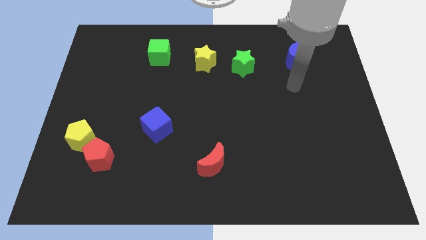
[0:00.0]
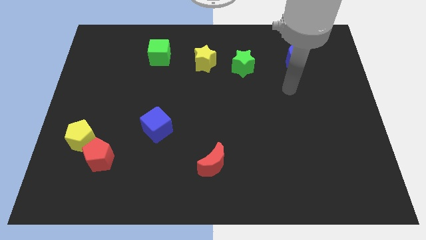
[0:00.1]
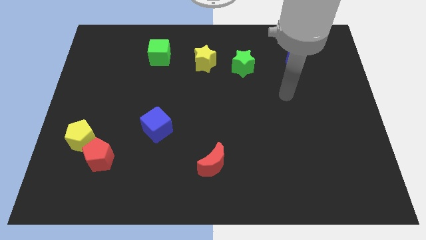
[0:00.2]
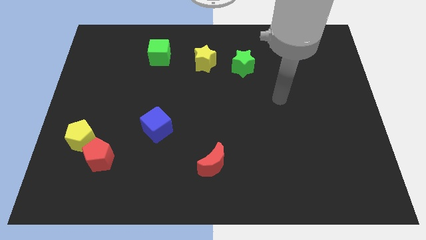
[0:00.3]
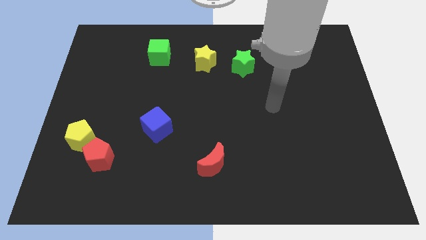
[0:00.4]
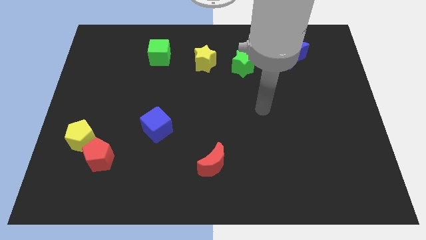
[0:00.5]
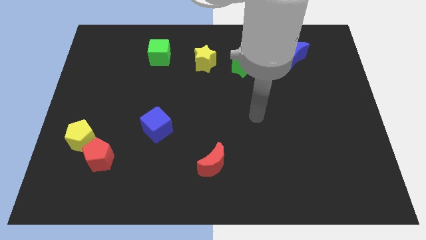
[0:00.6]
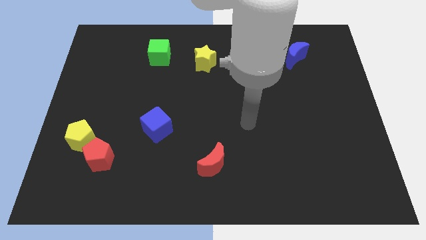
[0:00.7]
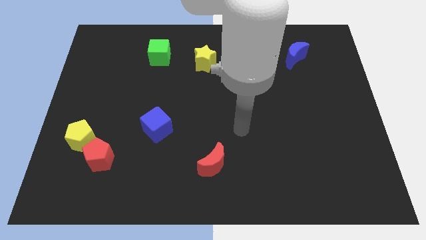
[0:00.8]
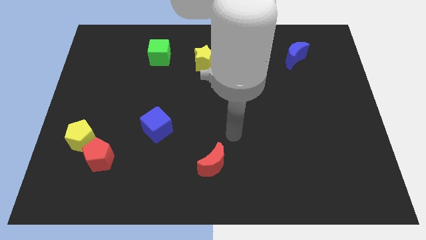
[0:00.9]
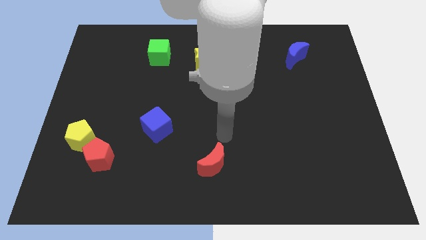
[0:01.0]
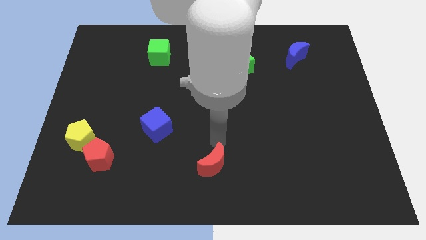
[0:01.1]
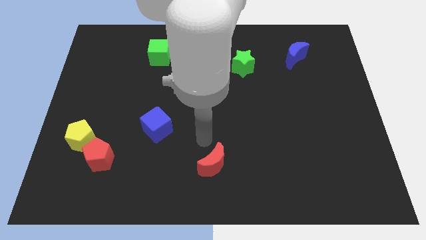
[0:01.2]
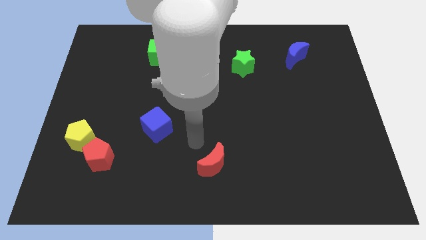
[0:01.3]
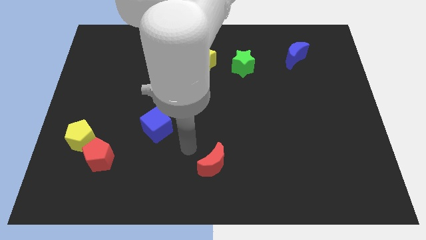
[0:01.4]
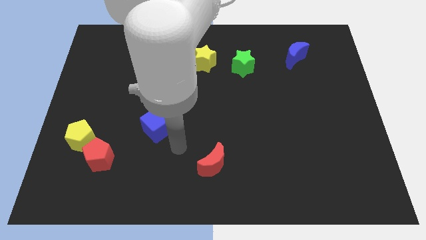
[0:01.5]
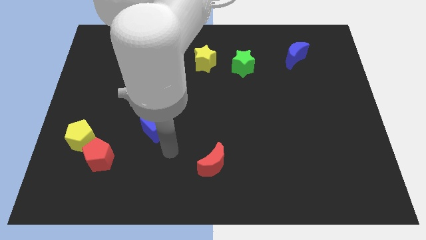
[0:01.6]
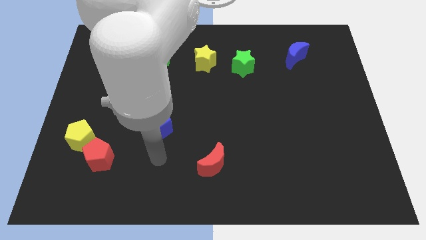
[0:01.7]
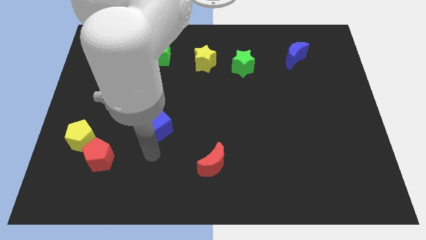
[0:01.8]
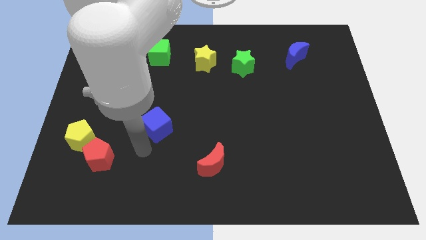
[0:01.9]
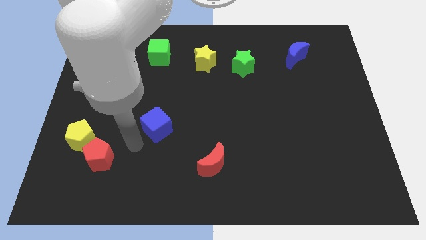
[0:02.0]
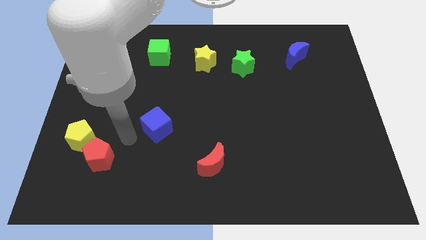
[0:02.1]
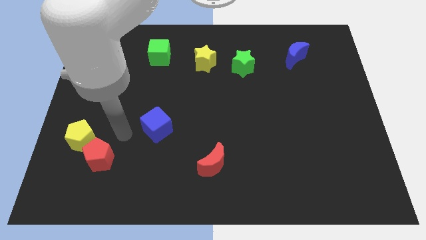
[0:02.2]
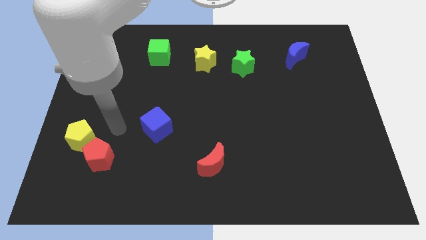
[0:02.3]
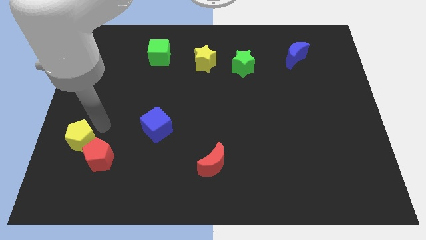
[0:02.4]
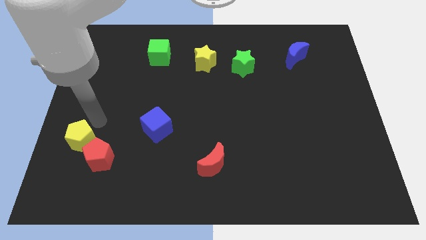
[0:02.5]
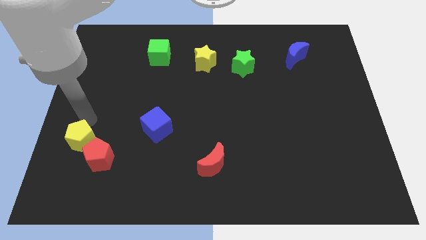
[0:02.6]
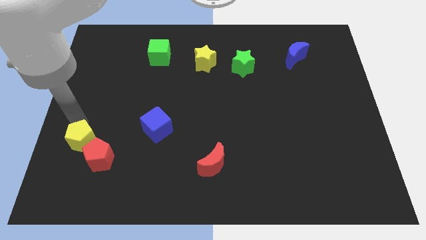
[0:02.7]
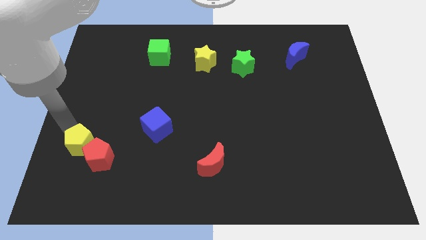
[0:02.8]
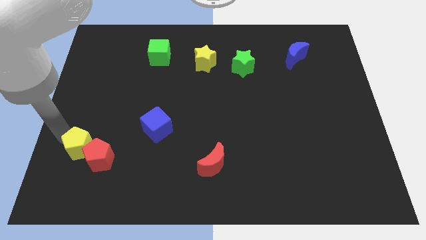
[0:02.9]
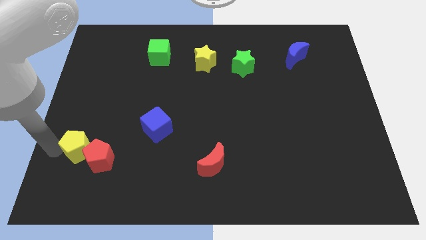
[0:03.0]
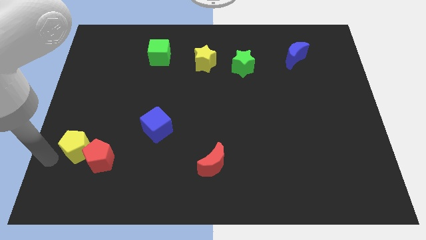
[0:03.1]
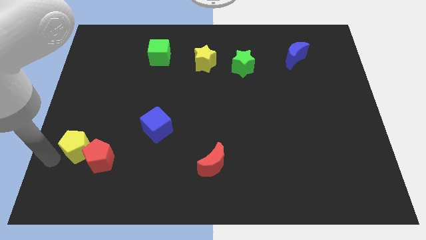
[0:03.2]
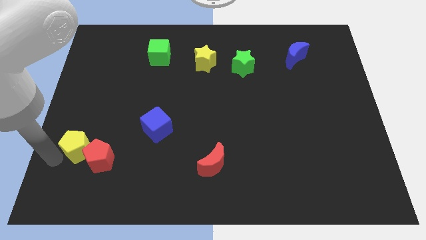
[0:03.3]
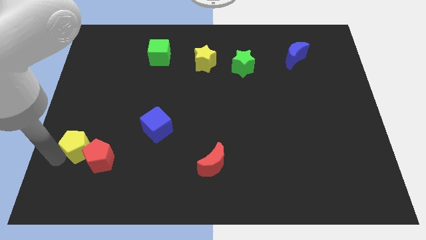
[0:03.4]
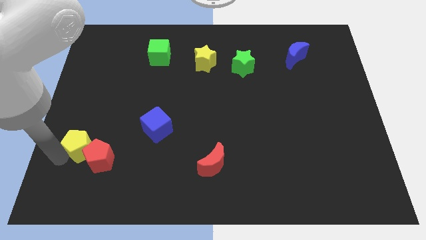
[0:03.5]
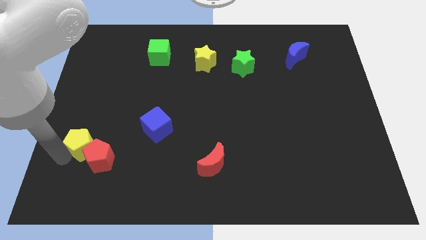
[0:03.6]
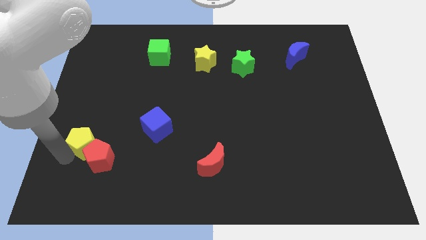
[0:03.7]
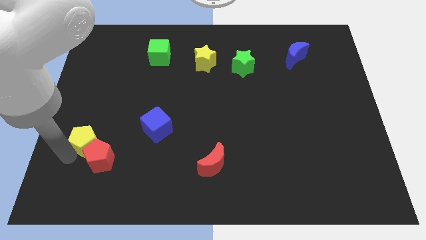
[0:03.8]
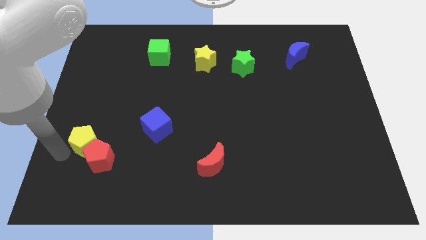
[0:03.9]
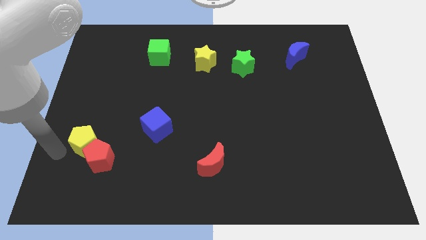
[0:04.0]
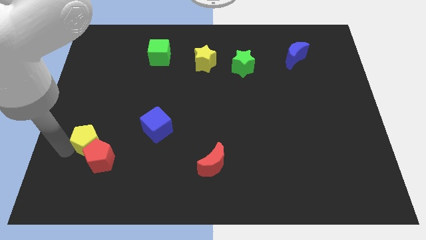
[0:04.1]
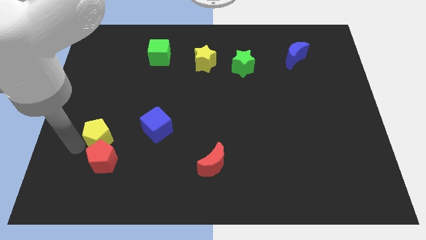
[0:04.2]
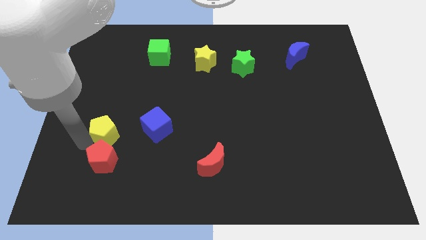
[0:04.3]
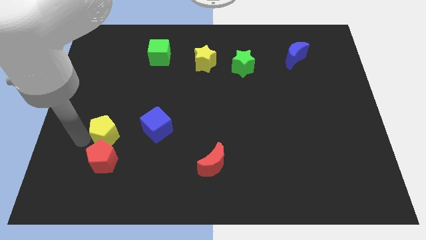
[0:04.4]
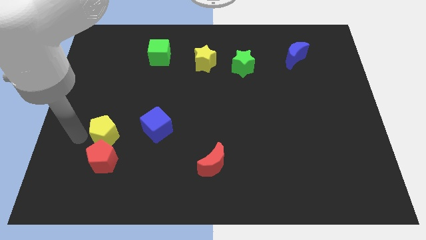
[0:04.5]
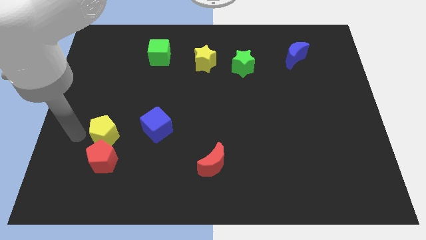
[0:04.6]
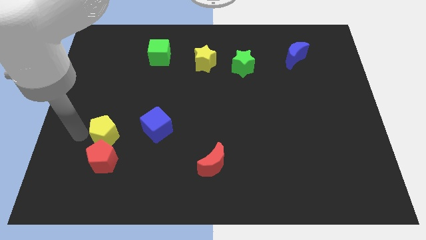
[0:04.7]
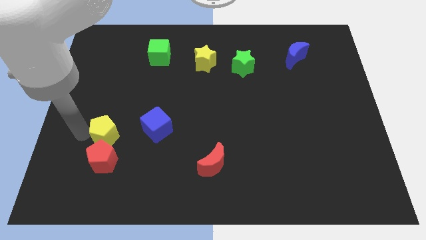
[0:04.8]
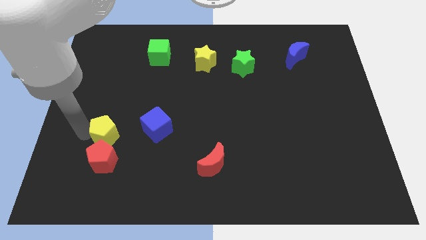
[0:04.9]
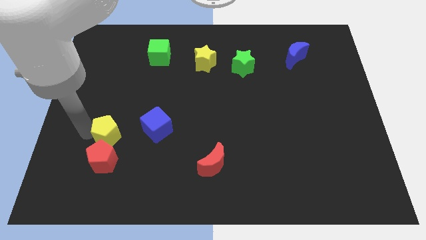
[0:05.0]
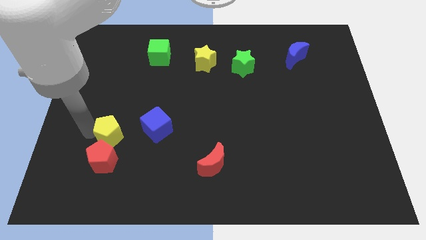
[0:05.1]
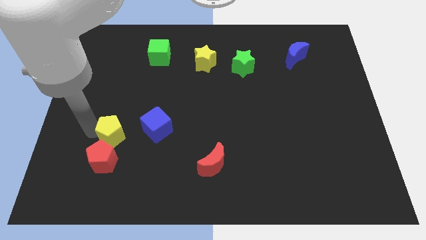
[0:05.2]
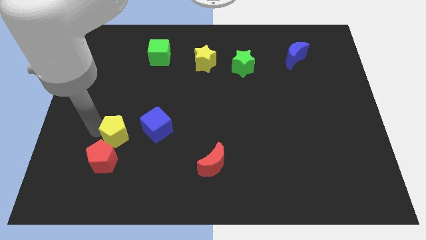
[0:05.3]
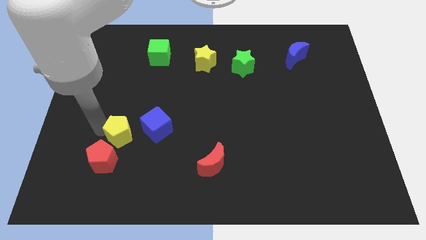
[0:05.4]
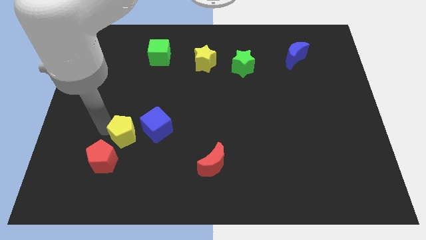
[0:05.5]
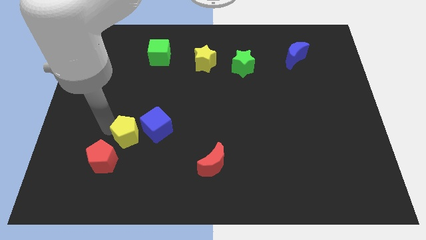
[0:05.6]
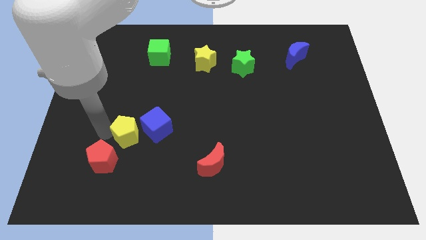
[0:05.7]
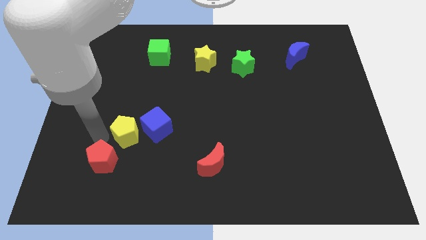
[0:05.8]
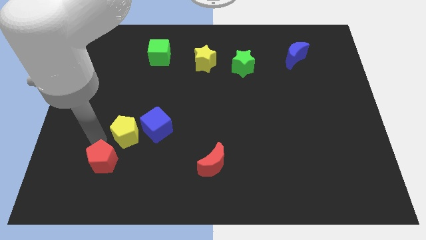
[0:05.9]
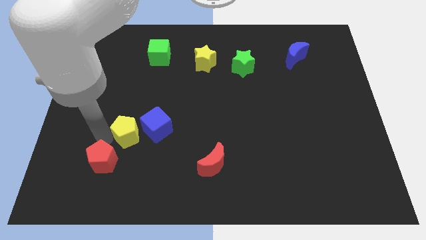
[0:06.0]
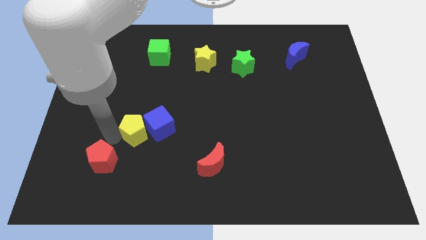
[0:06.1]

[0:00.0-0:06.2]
push the yellow pentagon next to the blue cube

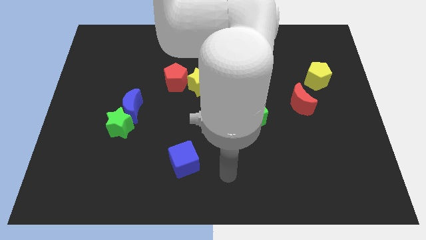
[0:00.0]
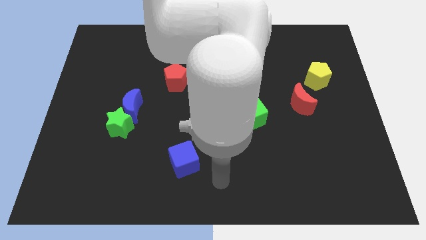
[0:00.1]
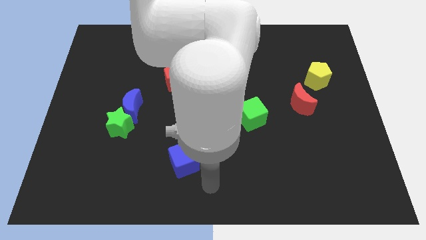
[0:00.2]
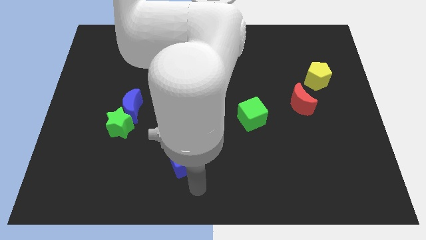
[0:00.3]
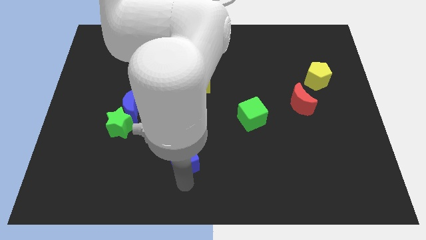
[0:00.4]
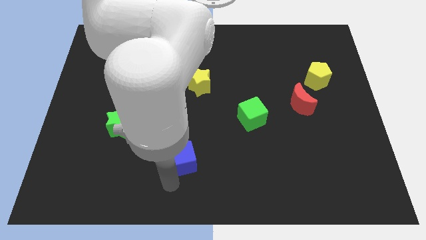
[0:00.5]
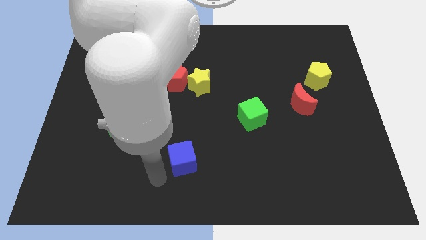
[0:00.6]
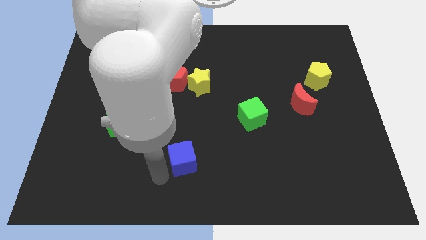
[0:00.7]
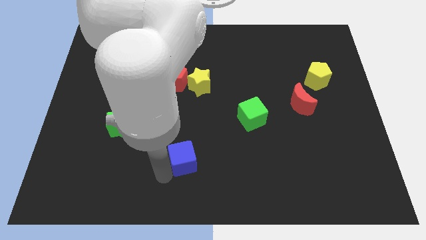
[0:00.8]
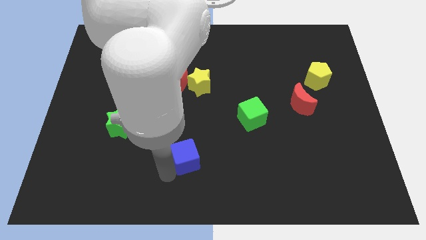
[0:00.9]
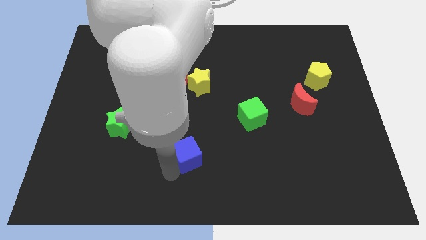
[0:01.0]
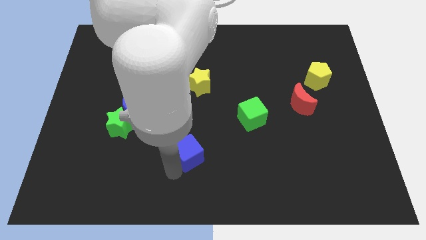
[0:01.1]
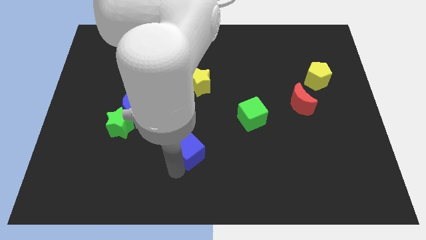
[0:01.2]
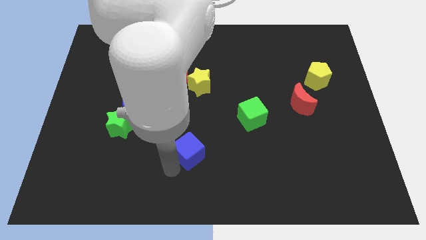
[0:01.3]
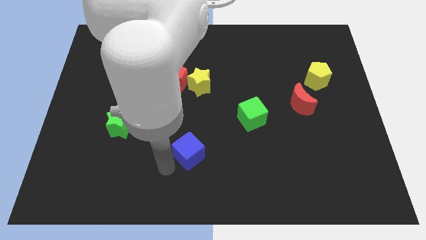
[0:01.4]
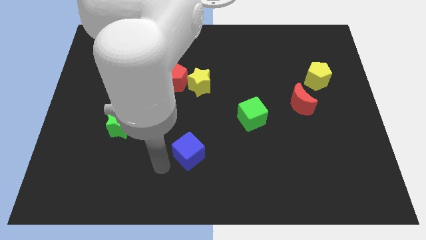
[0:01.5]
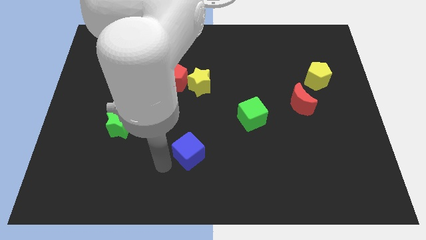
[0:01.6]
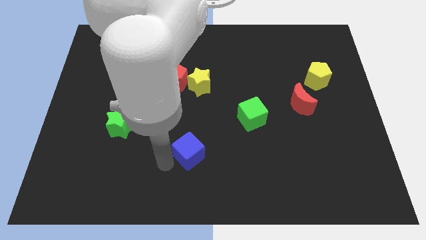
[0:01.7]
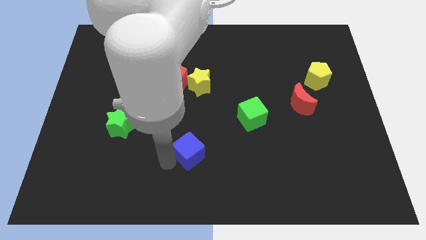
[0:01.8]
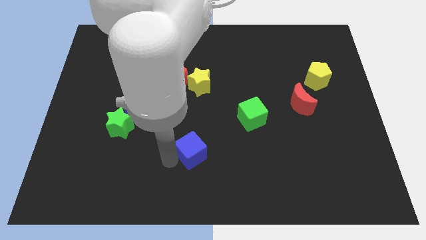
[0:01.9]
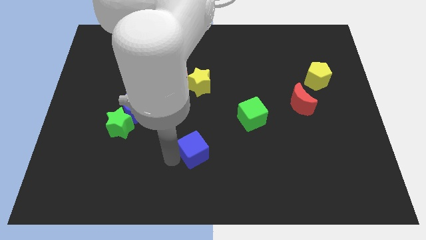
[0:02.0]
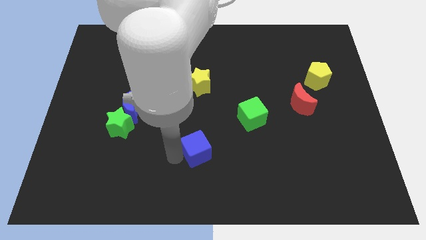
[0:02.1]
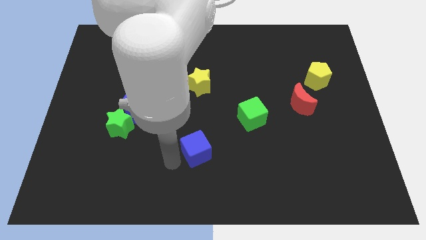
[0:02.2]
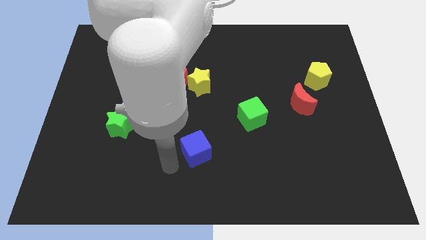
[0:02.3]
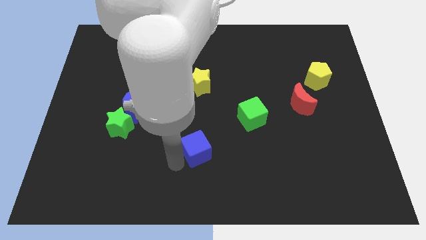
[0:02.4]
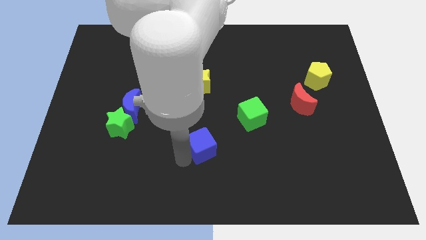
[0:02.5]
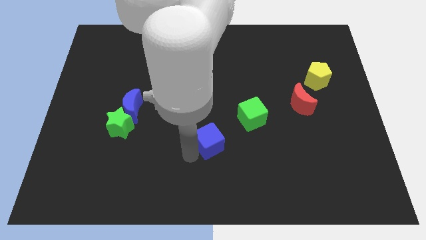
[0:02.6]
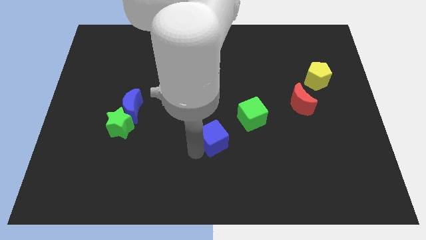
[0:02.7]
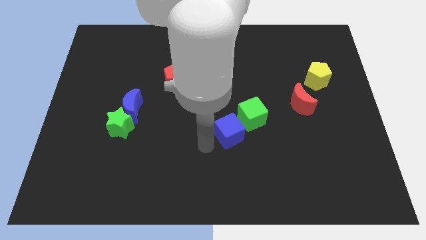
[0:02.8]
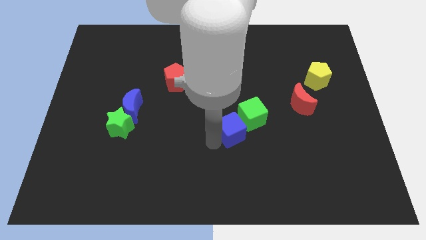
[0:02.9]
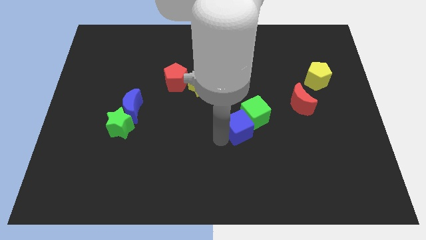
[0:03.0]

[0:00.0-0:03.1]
push the blue cube close to the green cube
